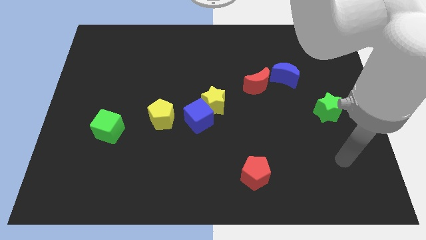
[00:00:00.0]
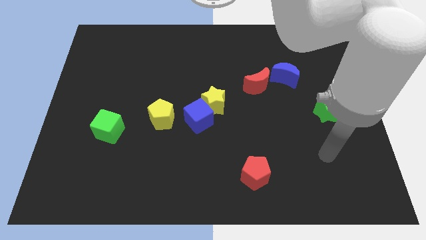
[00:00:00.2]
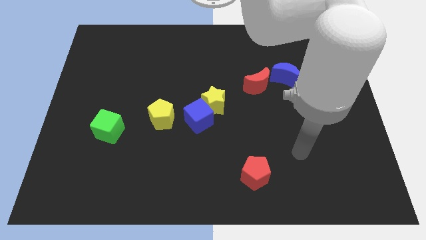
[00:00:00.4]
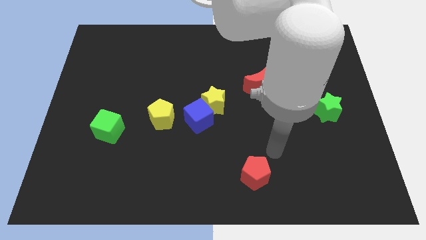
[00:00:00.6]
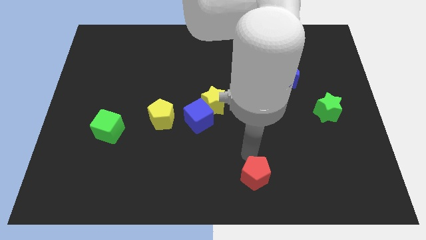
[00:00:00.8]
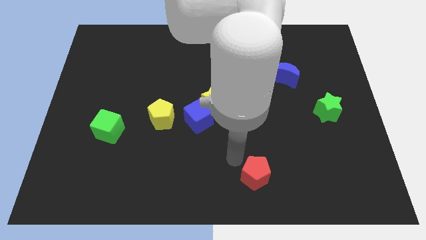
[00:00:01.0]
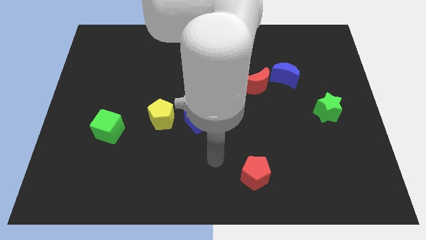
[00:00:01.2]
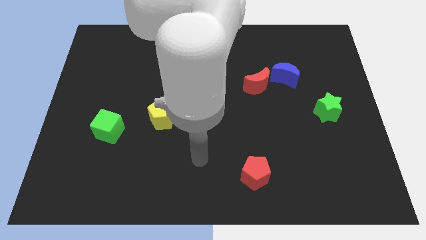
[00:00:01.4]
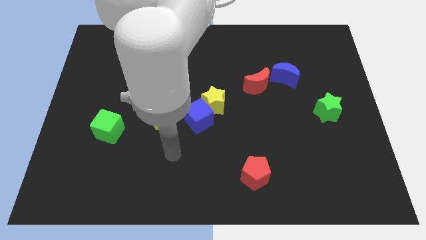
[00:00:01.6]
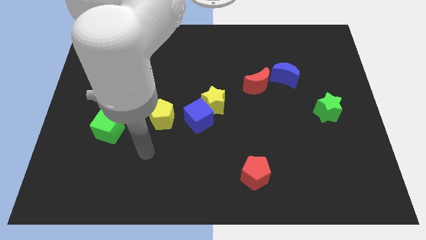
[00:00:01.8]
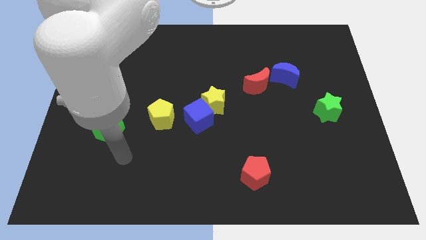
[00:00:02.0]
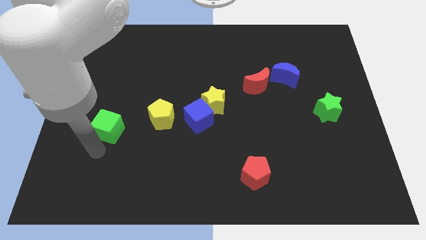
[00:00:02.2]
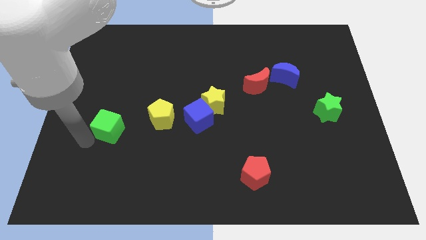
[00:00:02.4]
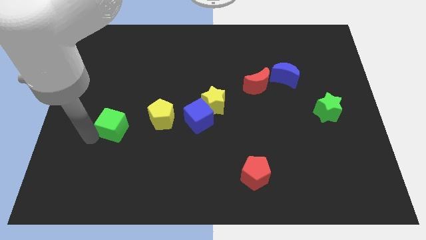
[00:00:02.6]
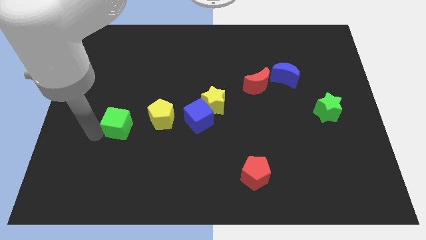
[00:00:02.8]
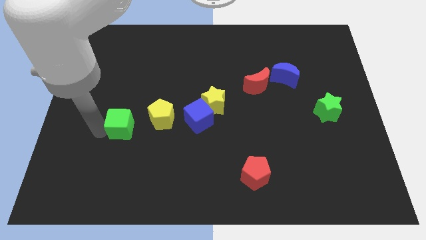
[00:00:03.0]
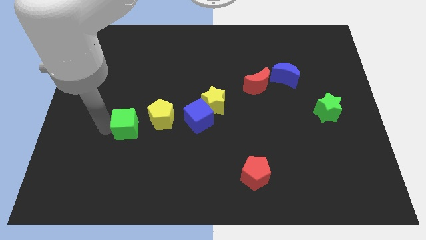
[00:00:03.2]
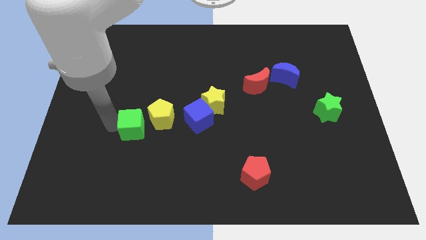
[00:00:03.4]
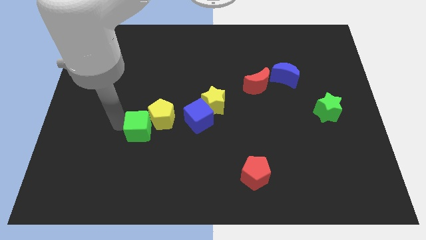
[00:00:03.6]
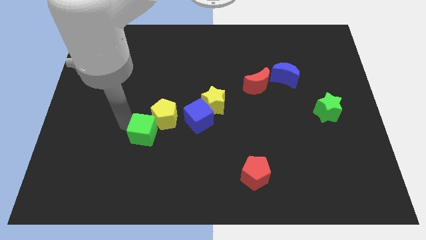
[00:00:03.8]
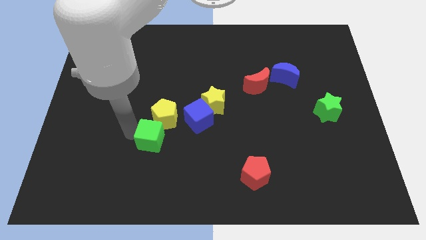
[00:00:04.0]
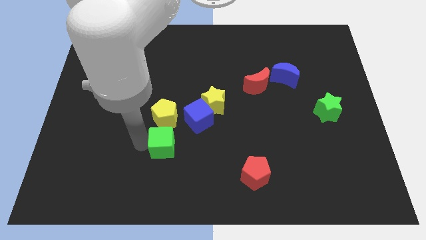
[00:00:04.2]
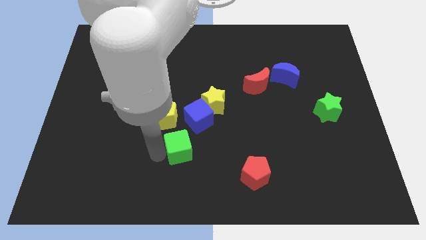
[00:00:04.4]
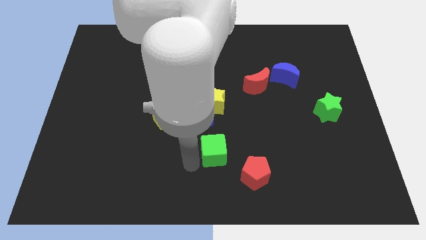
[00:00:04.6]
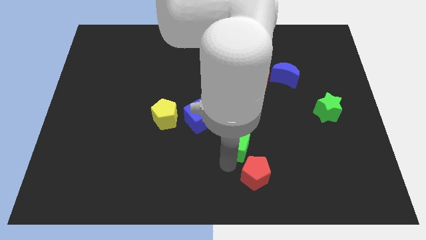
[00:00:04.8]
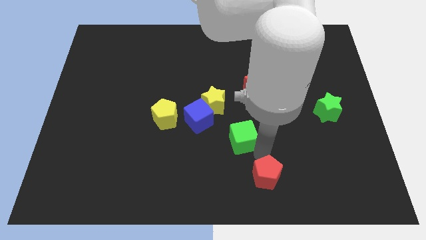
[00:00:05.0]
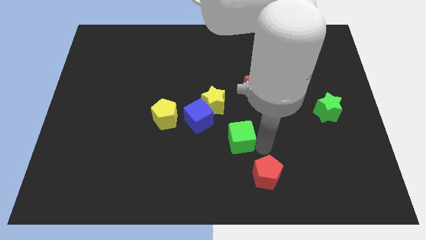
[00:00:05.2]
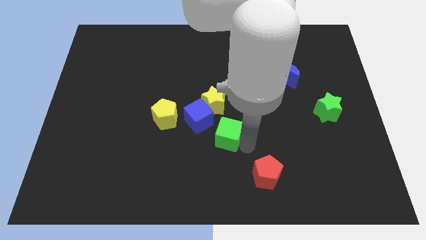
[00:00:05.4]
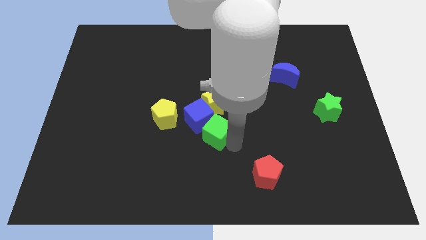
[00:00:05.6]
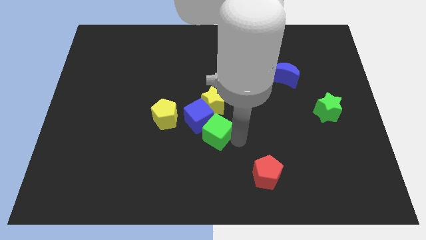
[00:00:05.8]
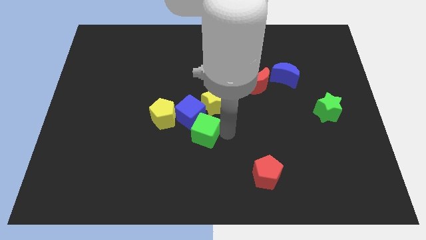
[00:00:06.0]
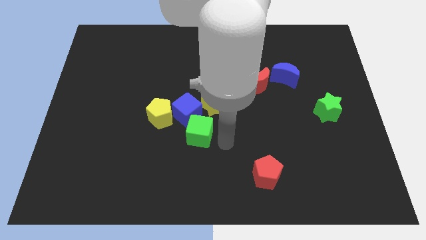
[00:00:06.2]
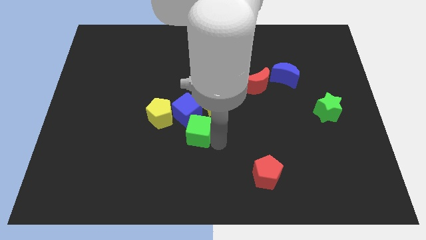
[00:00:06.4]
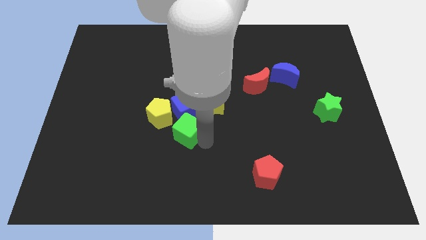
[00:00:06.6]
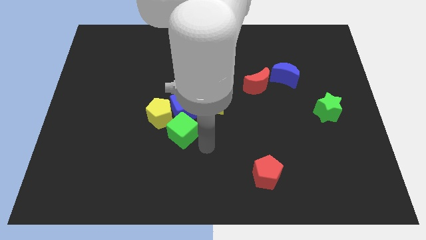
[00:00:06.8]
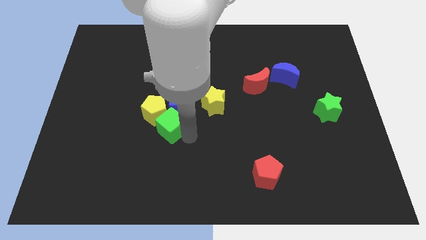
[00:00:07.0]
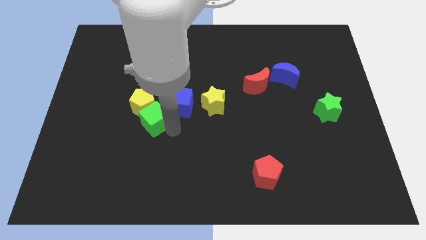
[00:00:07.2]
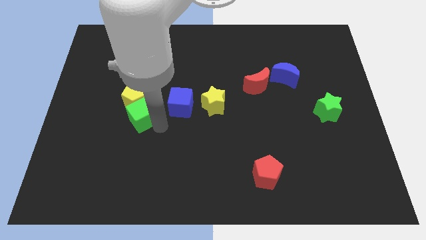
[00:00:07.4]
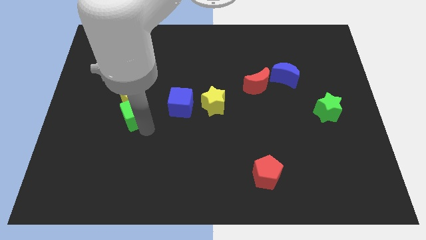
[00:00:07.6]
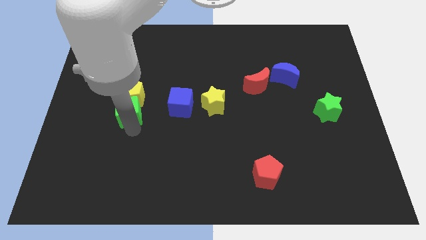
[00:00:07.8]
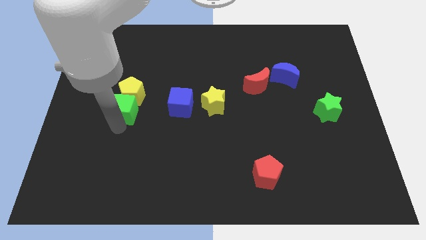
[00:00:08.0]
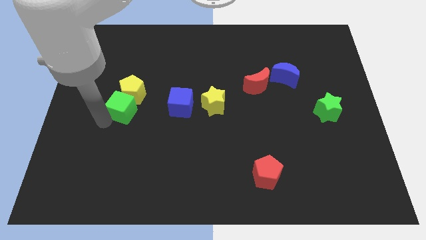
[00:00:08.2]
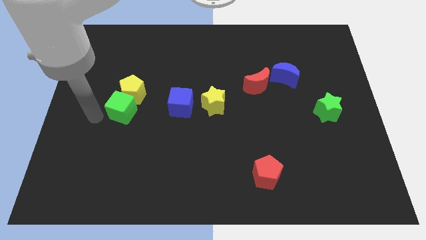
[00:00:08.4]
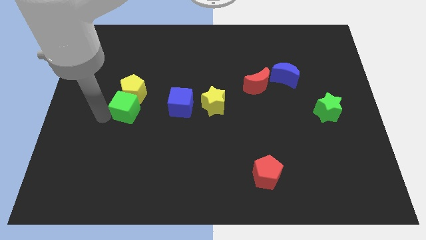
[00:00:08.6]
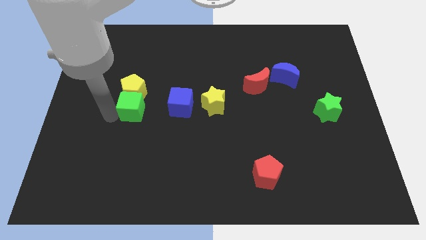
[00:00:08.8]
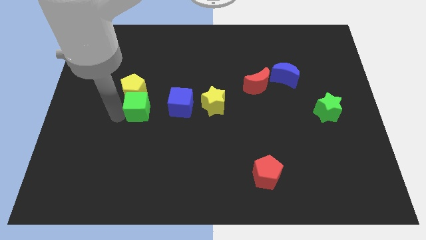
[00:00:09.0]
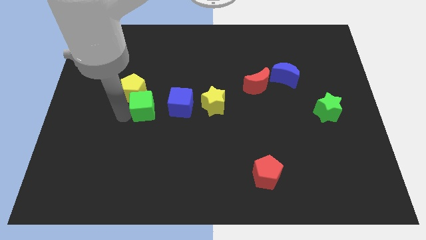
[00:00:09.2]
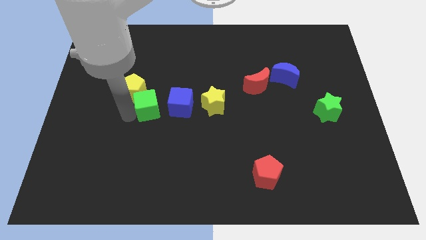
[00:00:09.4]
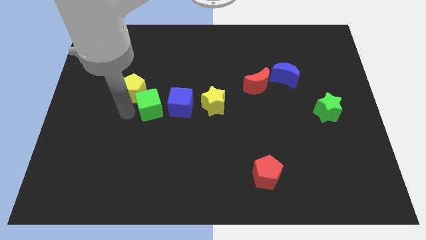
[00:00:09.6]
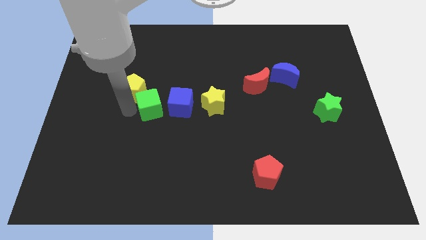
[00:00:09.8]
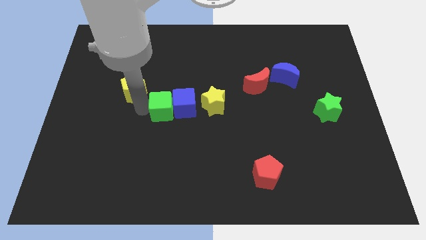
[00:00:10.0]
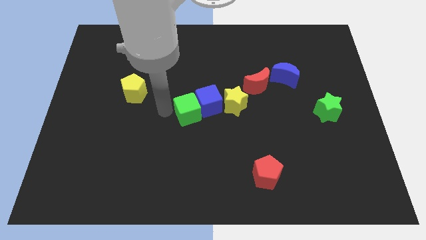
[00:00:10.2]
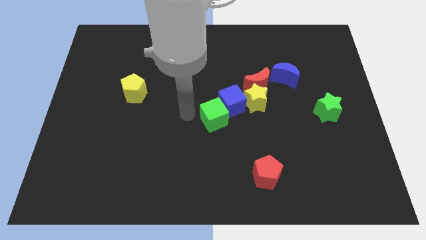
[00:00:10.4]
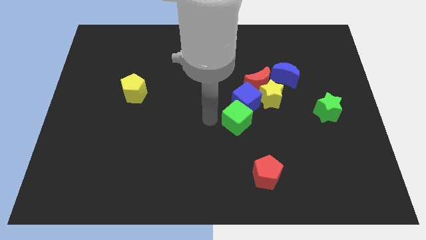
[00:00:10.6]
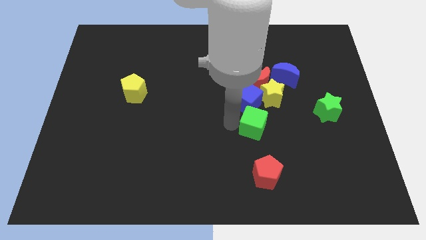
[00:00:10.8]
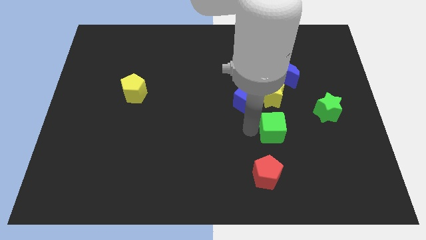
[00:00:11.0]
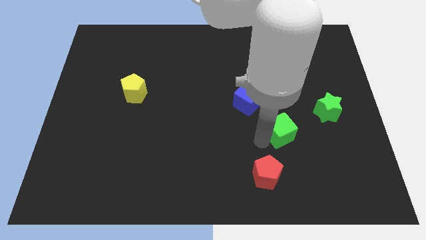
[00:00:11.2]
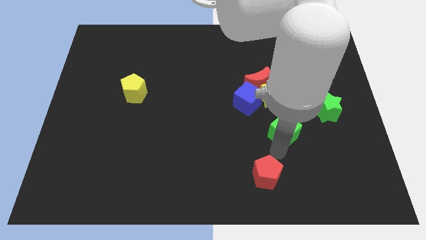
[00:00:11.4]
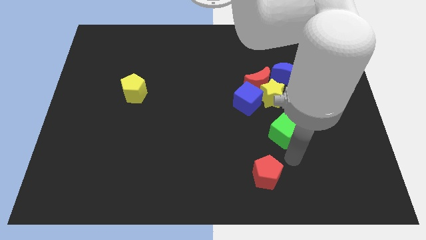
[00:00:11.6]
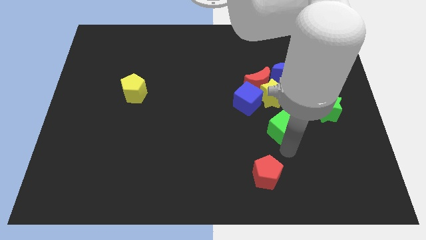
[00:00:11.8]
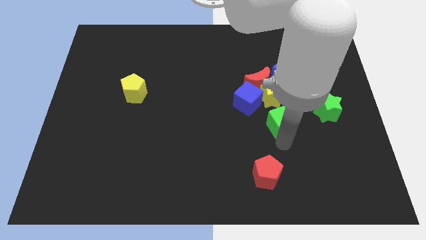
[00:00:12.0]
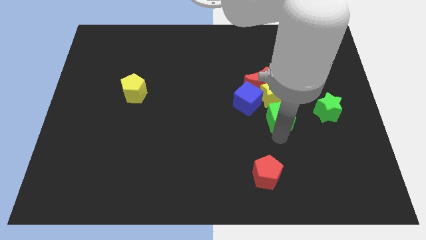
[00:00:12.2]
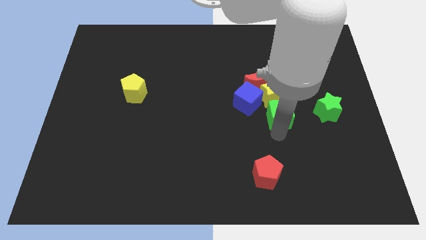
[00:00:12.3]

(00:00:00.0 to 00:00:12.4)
push the green cube next to the yellow star

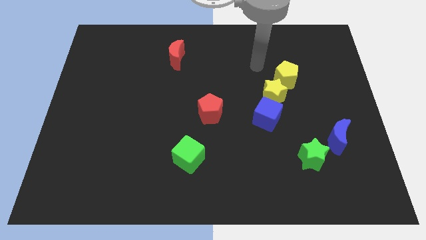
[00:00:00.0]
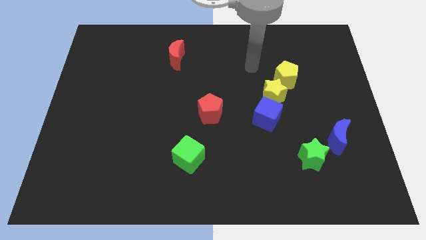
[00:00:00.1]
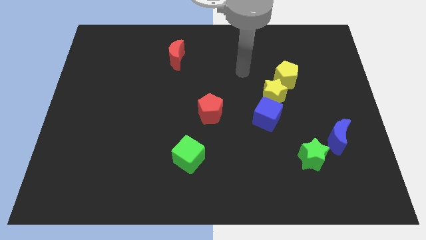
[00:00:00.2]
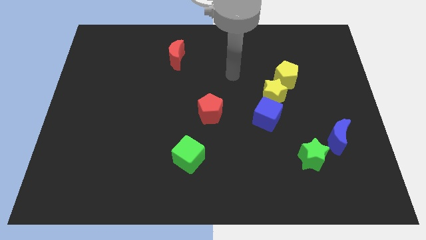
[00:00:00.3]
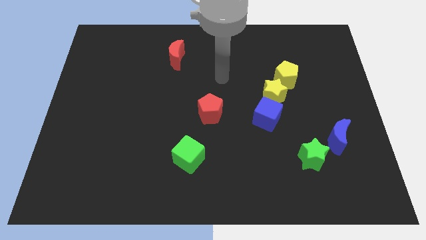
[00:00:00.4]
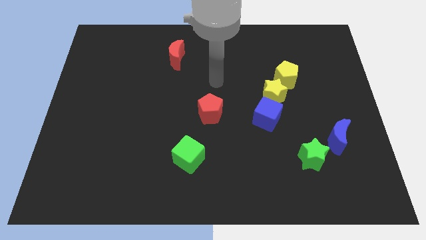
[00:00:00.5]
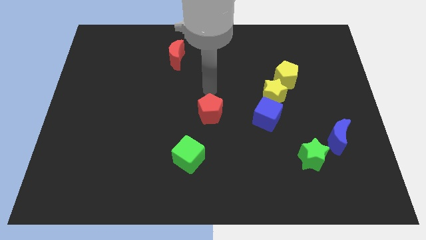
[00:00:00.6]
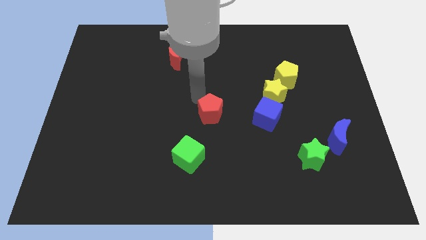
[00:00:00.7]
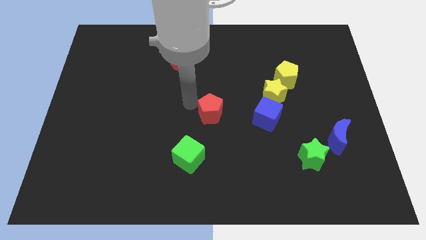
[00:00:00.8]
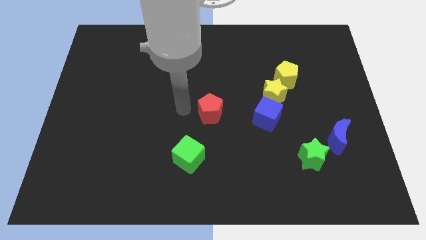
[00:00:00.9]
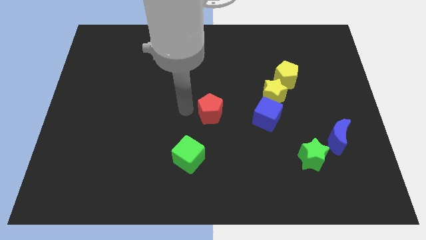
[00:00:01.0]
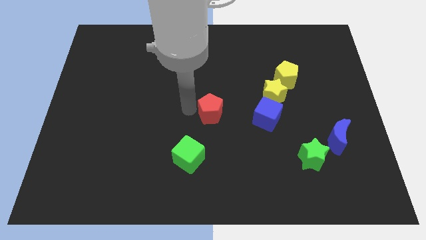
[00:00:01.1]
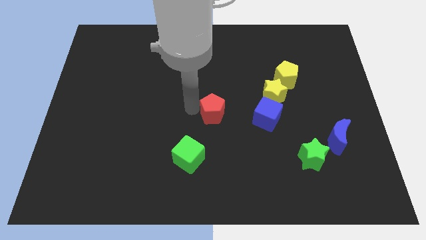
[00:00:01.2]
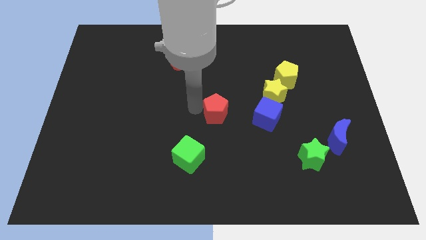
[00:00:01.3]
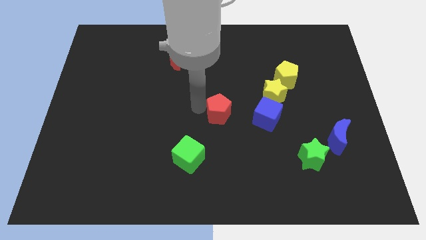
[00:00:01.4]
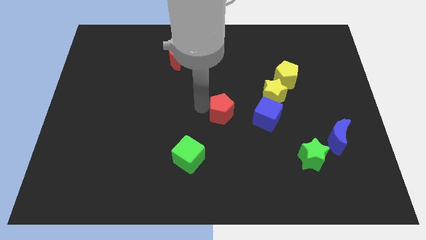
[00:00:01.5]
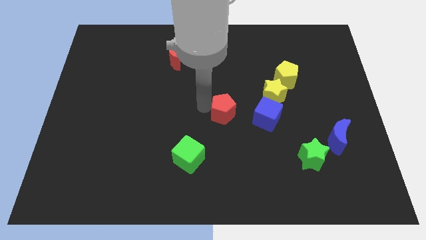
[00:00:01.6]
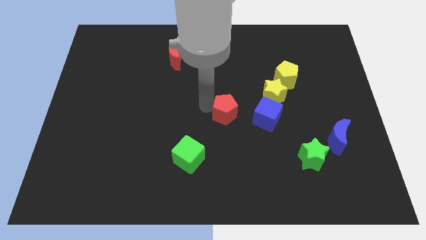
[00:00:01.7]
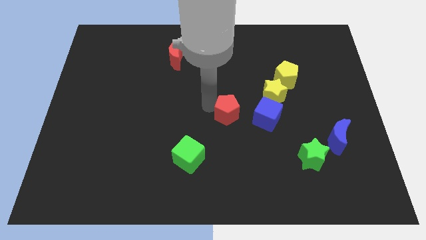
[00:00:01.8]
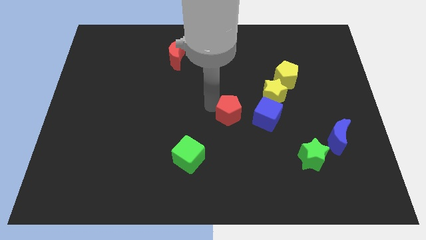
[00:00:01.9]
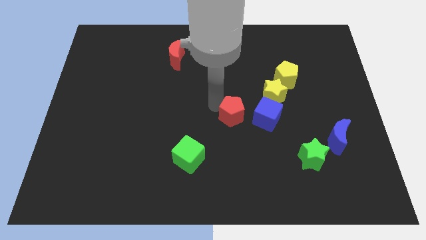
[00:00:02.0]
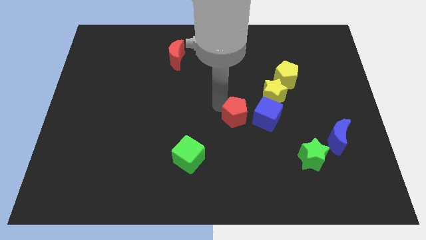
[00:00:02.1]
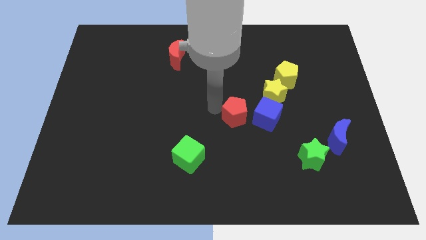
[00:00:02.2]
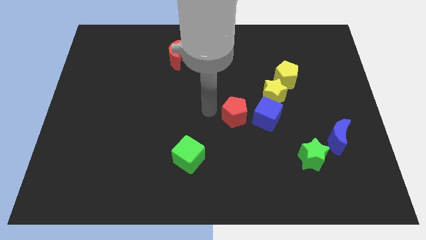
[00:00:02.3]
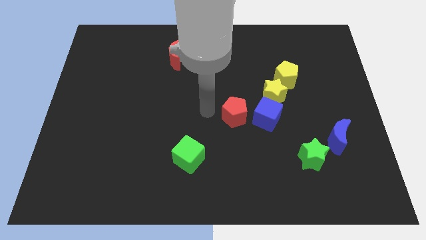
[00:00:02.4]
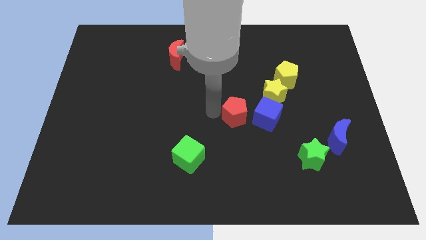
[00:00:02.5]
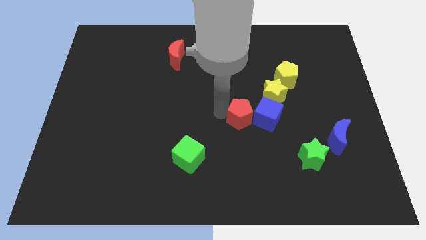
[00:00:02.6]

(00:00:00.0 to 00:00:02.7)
put the red pentagon to the blue cube
